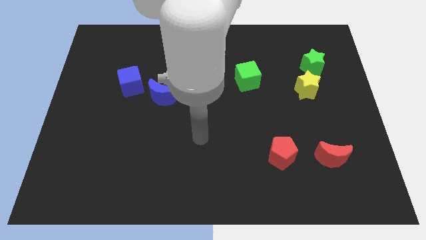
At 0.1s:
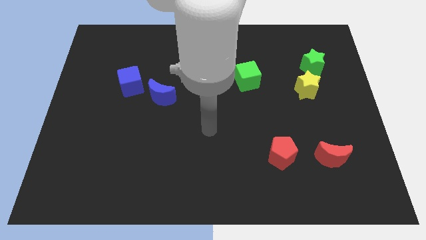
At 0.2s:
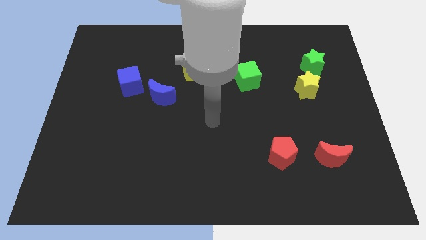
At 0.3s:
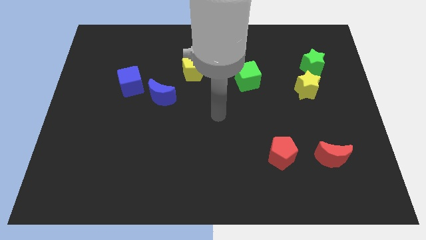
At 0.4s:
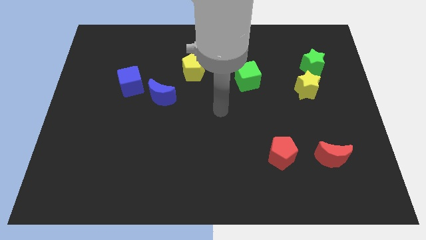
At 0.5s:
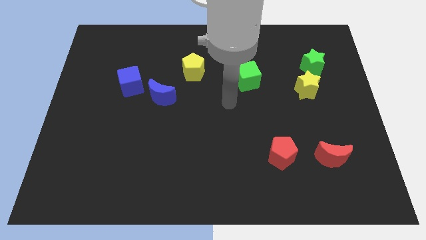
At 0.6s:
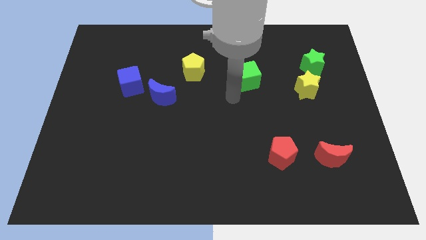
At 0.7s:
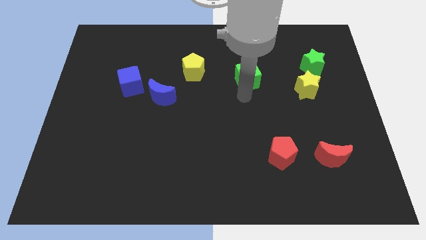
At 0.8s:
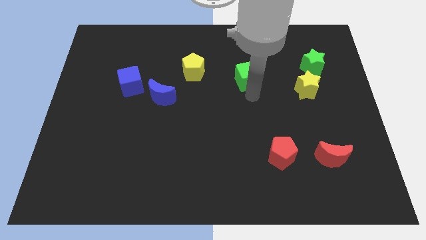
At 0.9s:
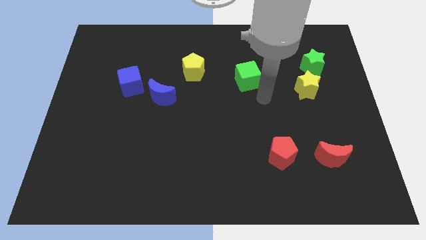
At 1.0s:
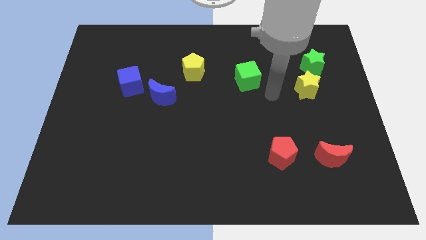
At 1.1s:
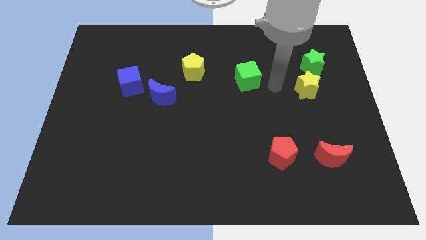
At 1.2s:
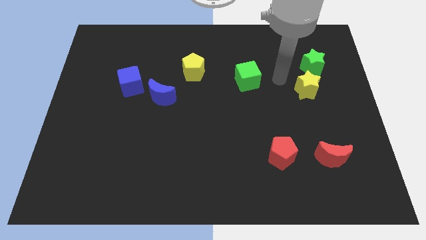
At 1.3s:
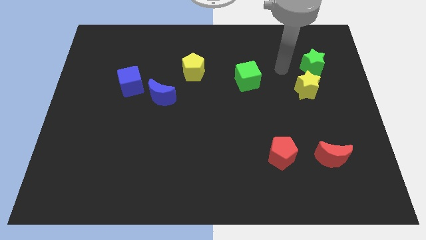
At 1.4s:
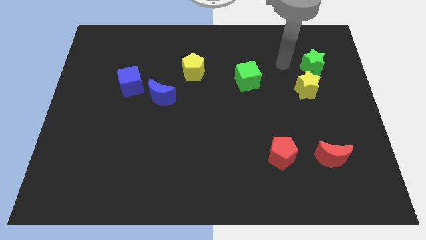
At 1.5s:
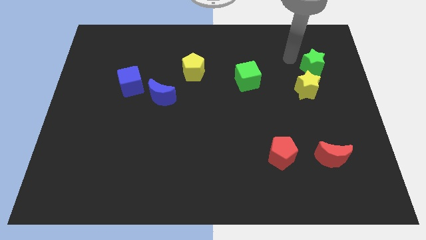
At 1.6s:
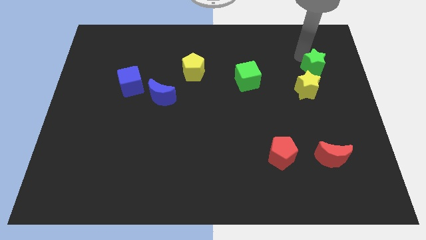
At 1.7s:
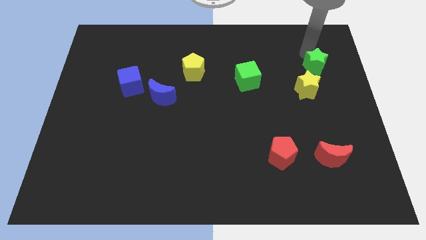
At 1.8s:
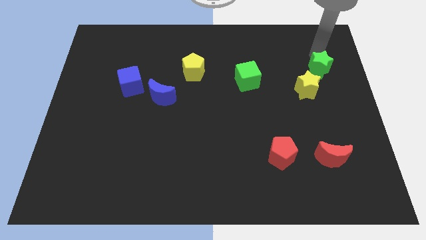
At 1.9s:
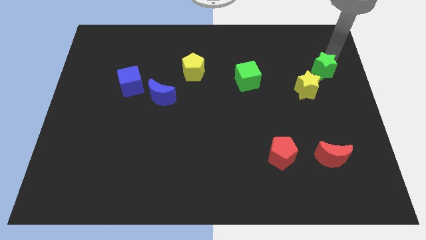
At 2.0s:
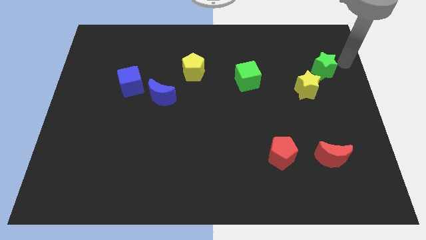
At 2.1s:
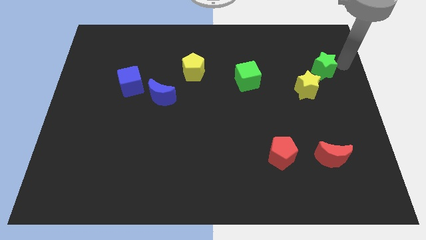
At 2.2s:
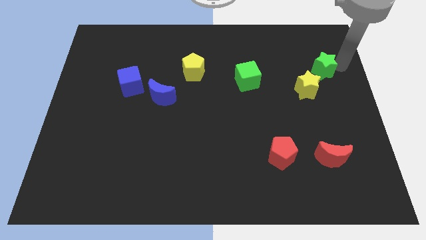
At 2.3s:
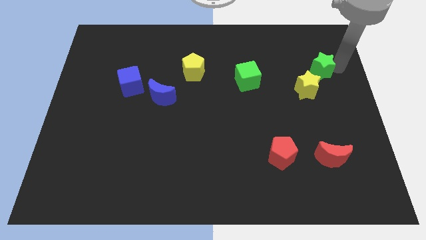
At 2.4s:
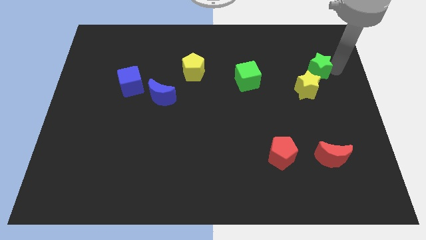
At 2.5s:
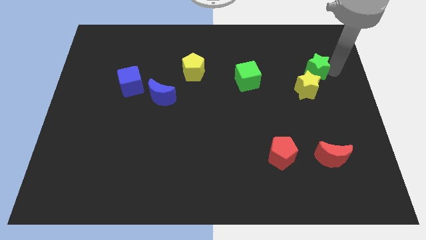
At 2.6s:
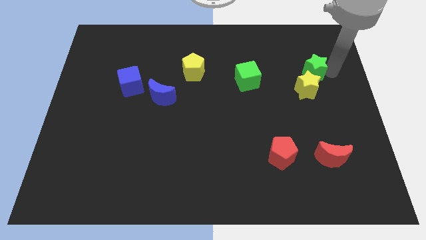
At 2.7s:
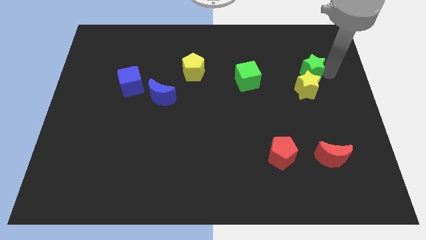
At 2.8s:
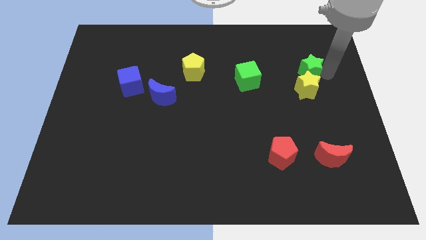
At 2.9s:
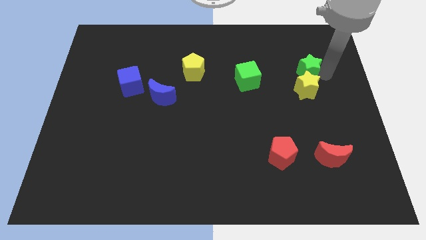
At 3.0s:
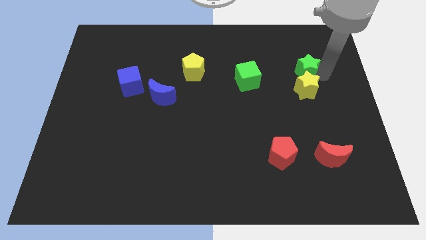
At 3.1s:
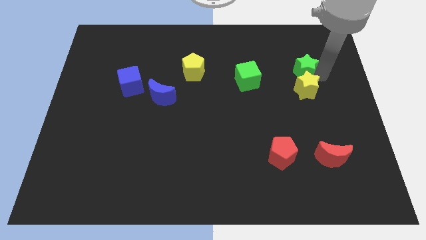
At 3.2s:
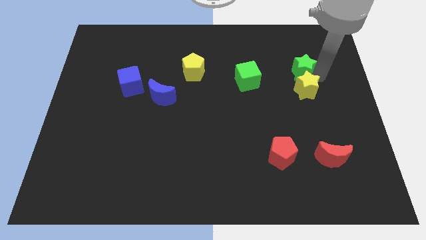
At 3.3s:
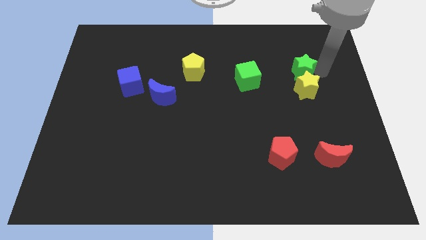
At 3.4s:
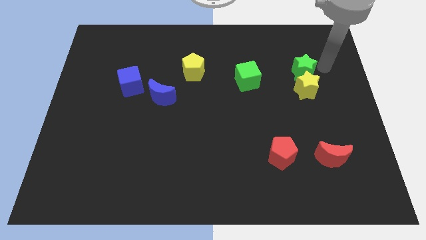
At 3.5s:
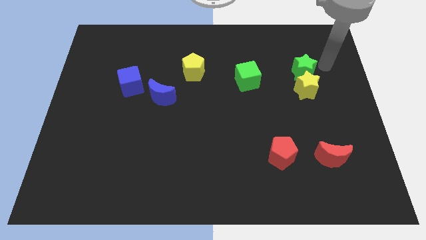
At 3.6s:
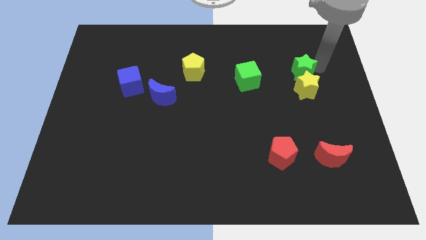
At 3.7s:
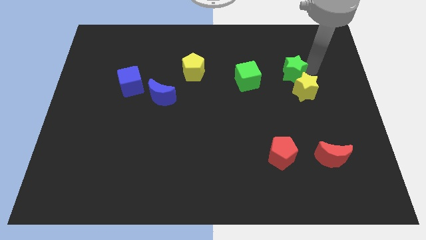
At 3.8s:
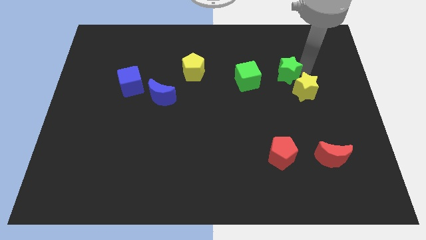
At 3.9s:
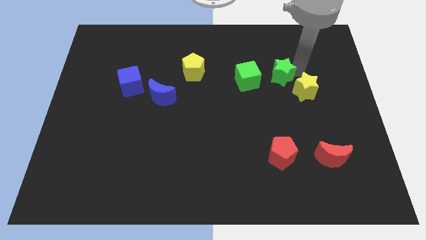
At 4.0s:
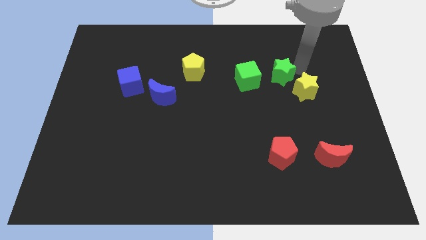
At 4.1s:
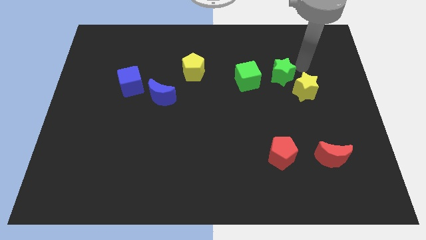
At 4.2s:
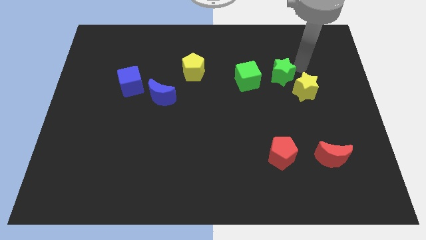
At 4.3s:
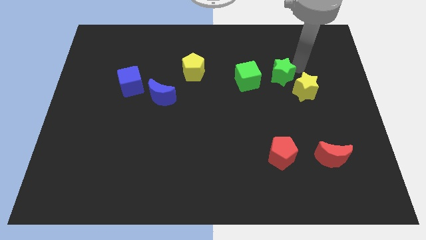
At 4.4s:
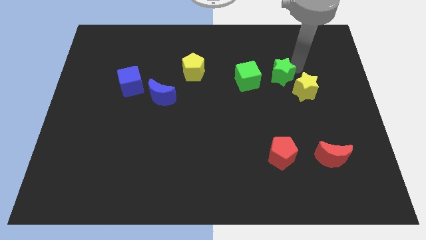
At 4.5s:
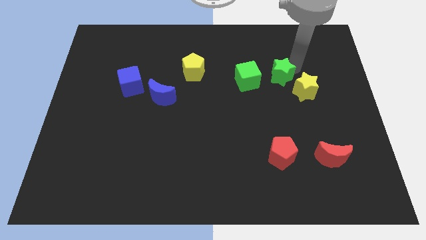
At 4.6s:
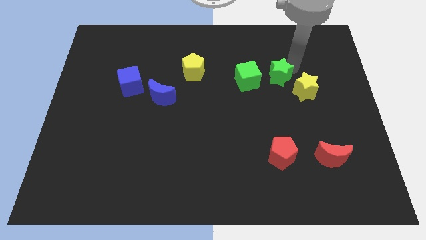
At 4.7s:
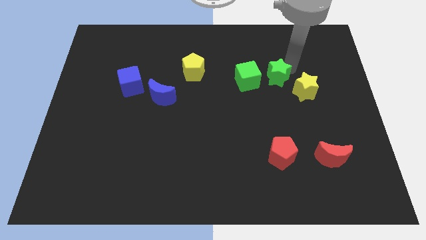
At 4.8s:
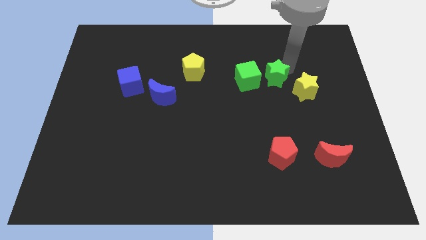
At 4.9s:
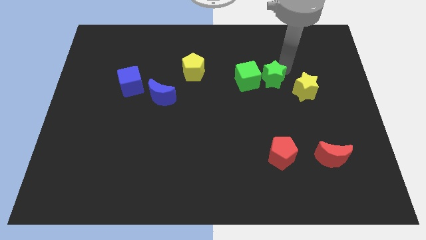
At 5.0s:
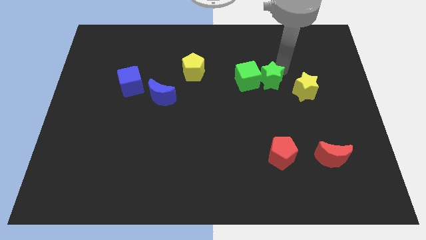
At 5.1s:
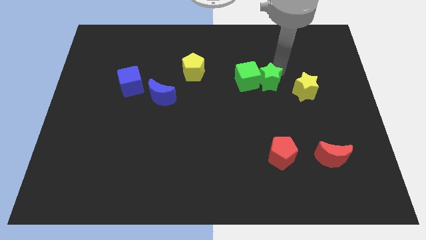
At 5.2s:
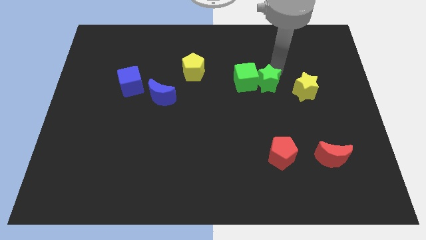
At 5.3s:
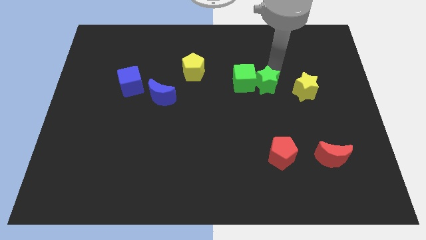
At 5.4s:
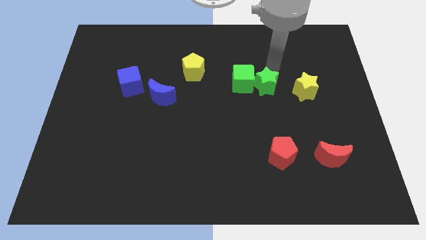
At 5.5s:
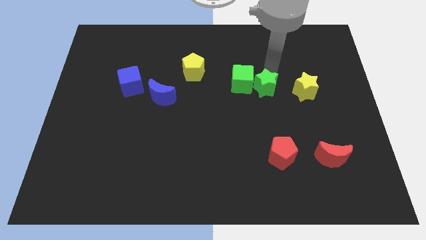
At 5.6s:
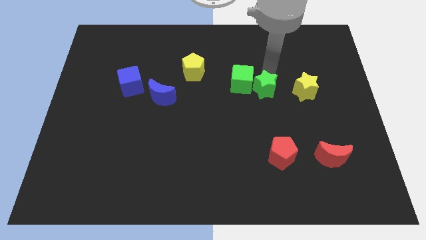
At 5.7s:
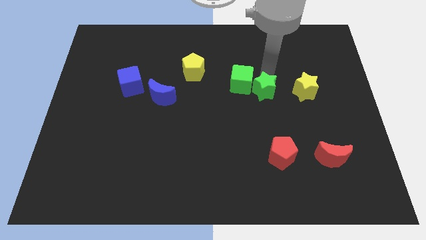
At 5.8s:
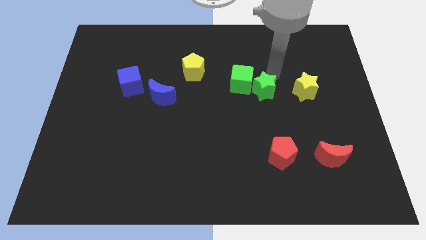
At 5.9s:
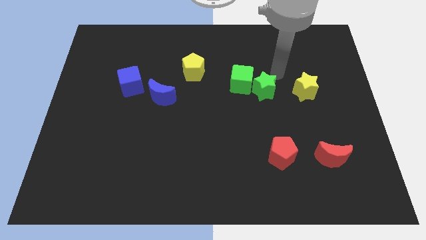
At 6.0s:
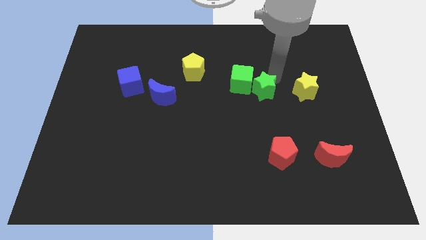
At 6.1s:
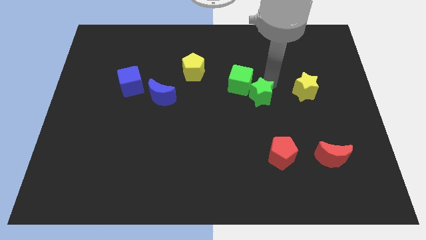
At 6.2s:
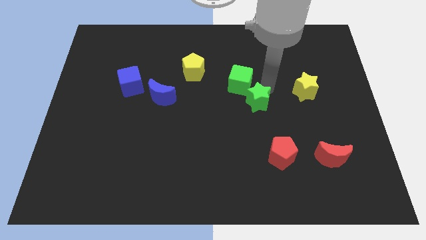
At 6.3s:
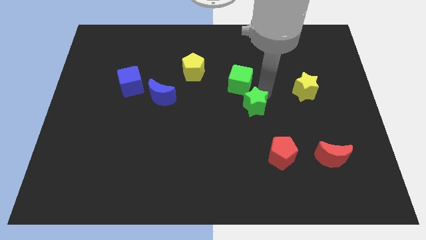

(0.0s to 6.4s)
slide the green star down and then left

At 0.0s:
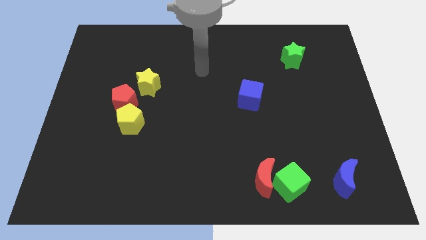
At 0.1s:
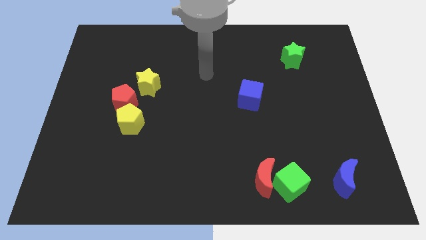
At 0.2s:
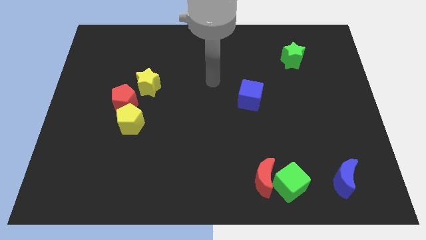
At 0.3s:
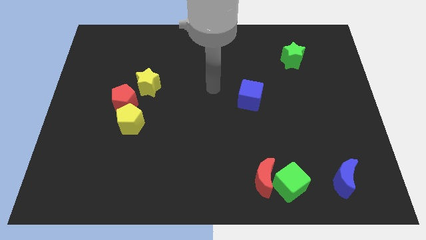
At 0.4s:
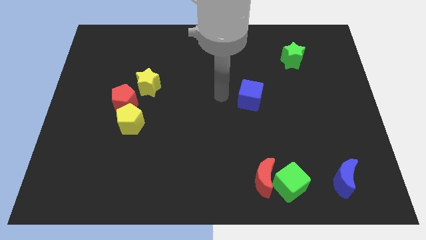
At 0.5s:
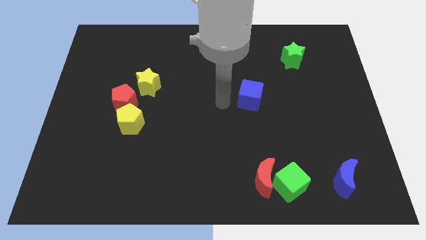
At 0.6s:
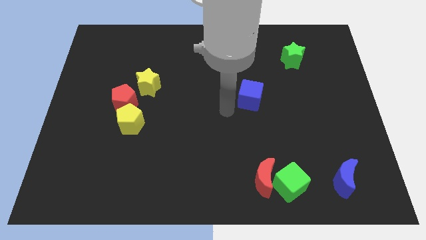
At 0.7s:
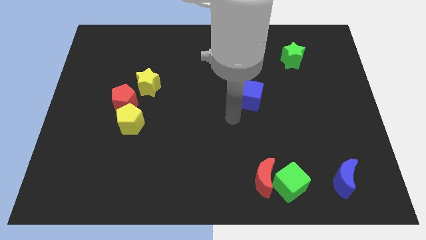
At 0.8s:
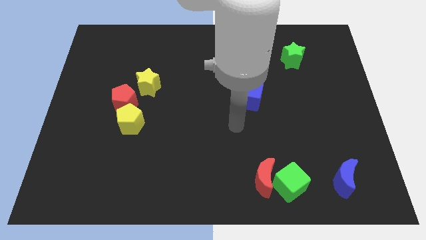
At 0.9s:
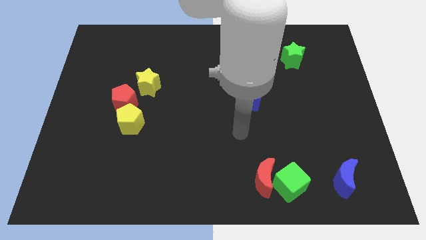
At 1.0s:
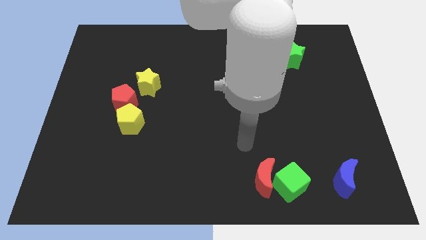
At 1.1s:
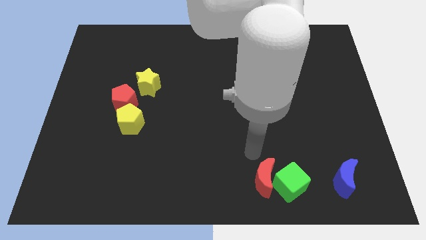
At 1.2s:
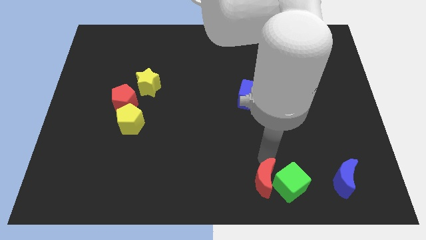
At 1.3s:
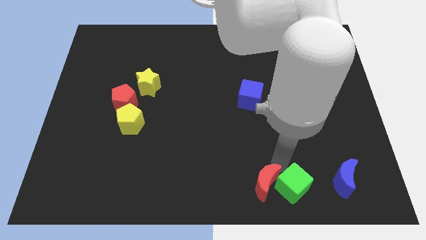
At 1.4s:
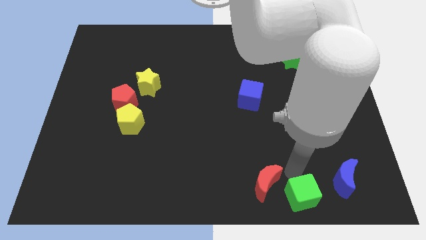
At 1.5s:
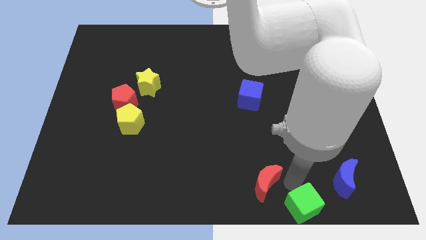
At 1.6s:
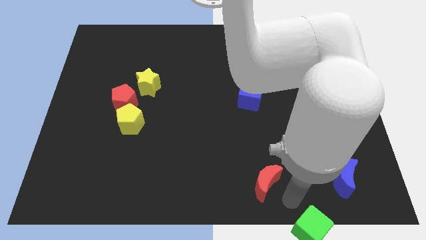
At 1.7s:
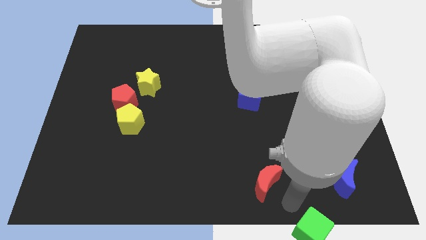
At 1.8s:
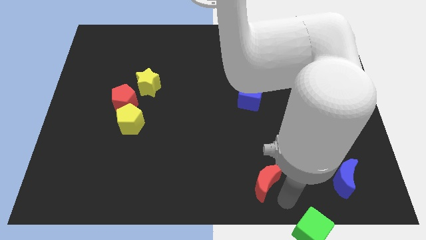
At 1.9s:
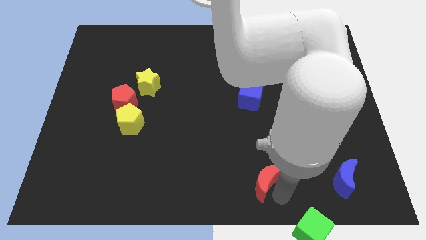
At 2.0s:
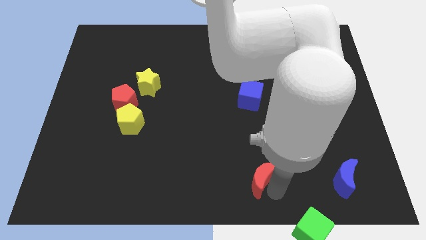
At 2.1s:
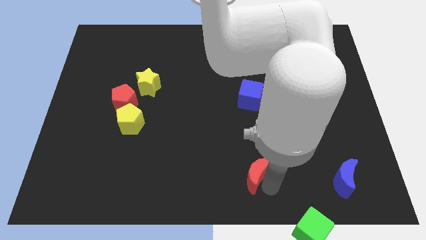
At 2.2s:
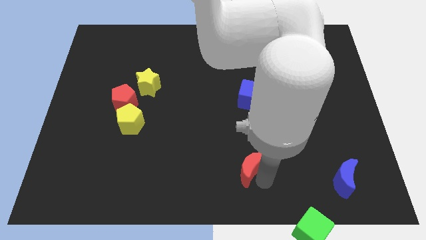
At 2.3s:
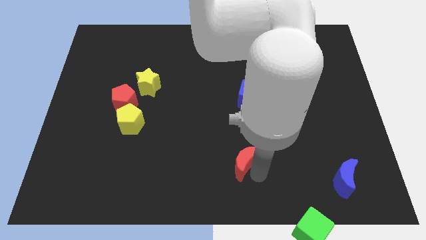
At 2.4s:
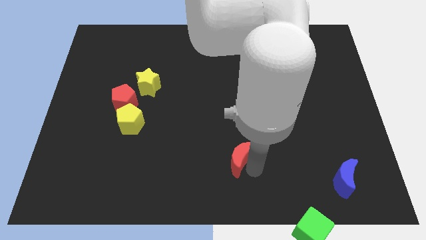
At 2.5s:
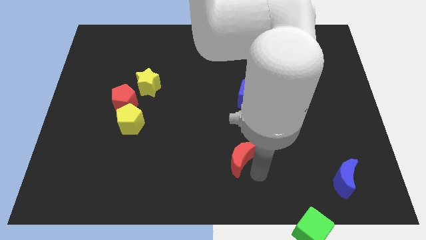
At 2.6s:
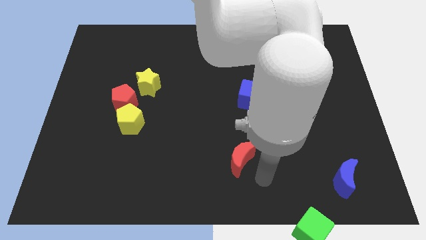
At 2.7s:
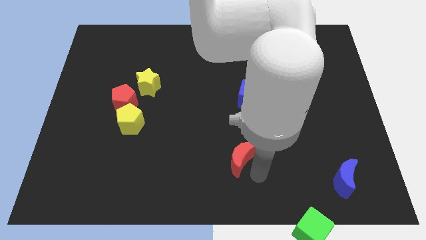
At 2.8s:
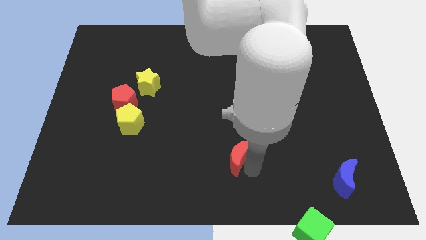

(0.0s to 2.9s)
slide the red moon up and left diagonally a little bit
